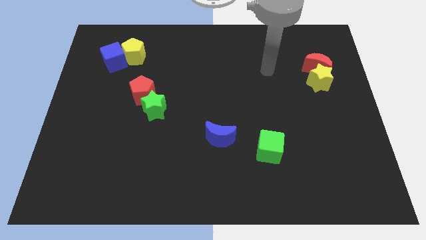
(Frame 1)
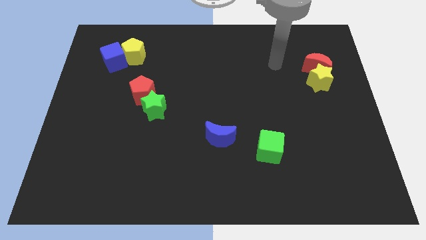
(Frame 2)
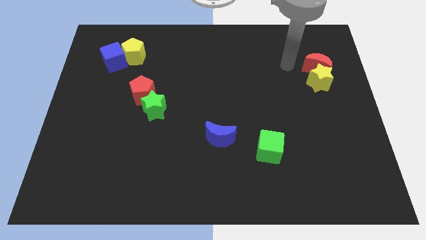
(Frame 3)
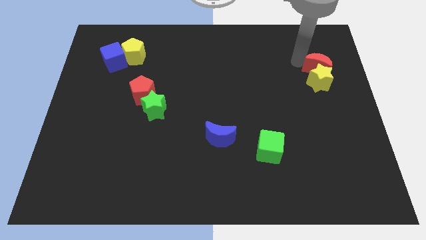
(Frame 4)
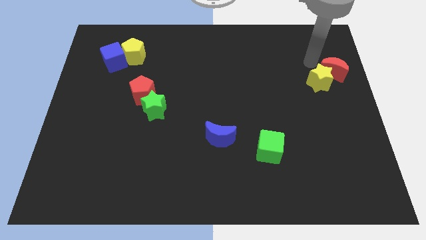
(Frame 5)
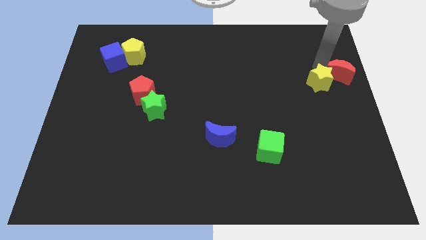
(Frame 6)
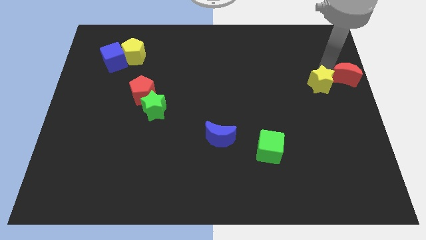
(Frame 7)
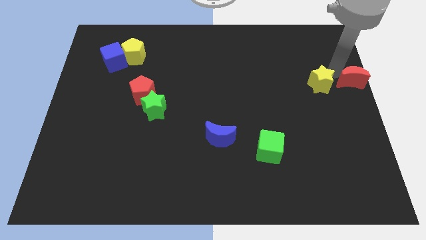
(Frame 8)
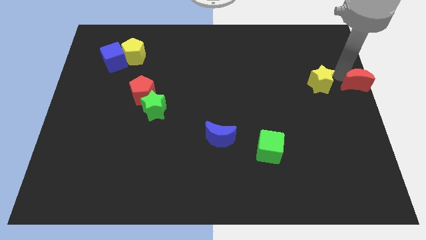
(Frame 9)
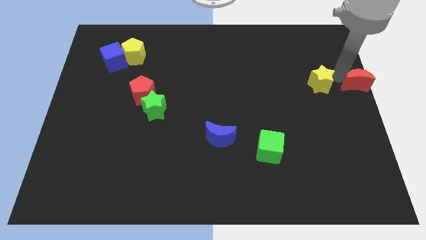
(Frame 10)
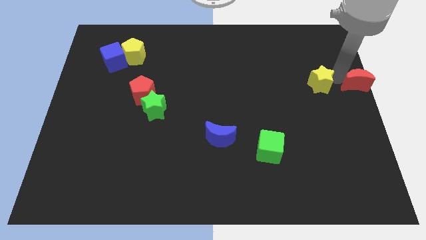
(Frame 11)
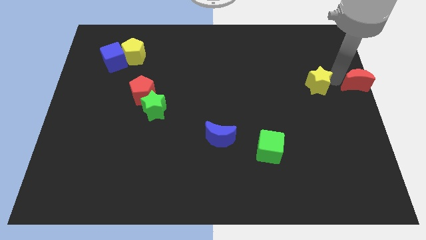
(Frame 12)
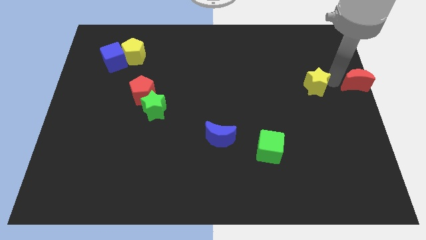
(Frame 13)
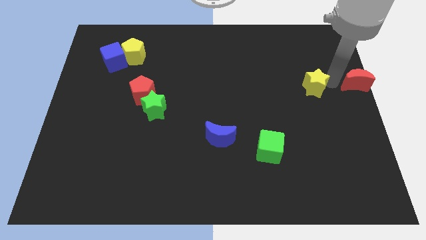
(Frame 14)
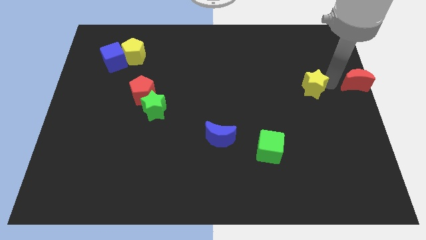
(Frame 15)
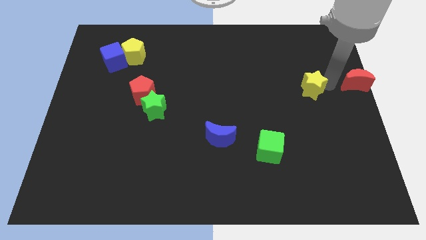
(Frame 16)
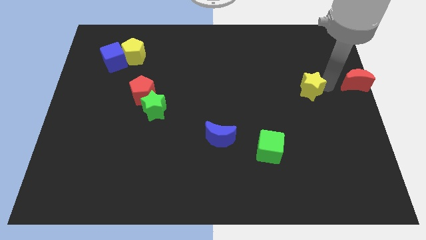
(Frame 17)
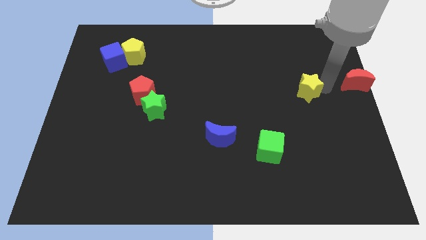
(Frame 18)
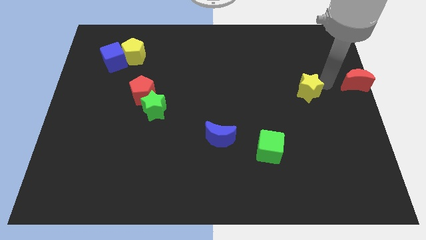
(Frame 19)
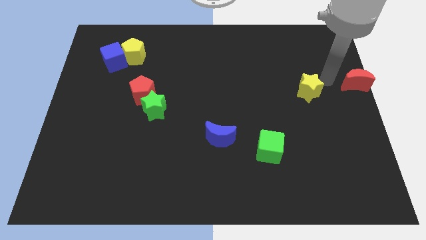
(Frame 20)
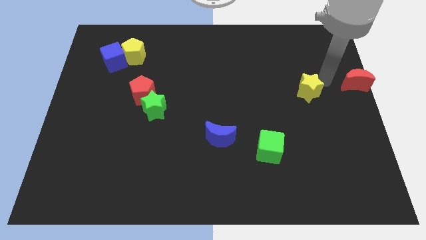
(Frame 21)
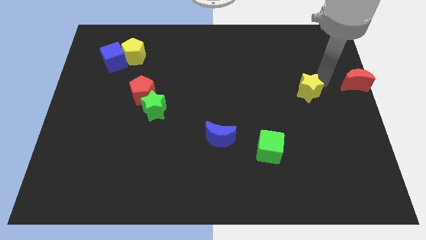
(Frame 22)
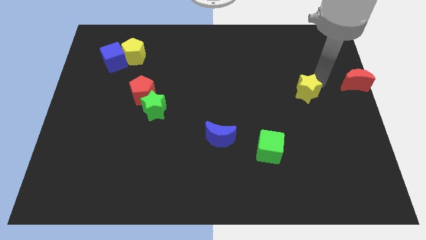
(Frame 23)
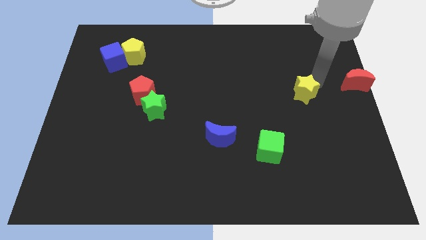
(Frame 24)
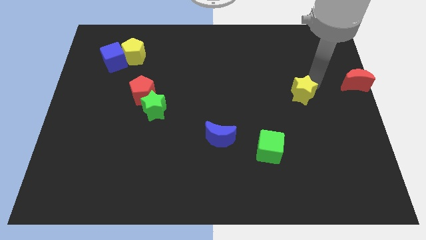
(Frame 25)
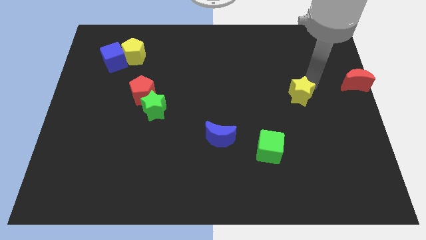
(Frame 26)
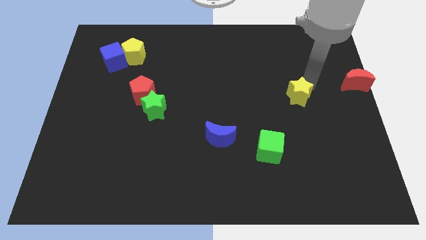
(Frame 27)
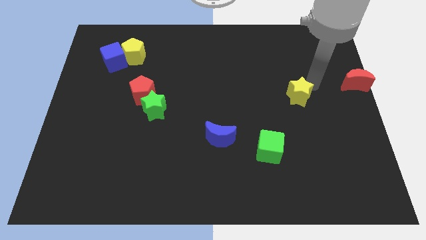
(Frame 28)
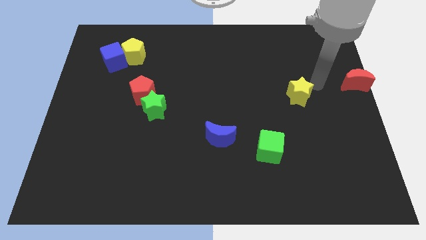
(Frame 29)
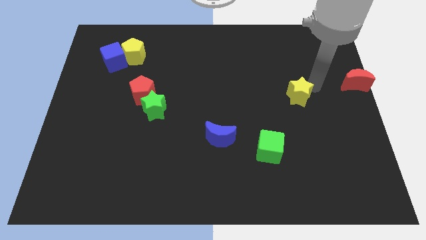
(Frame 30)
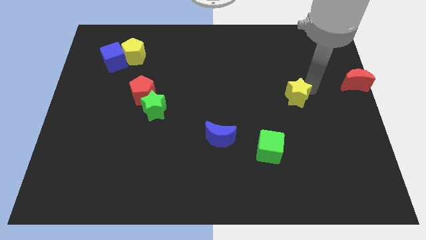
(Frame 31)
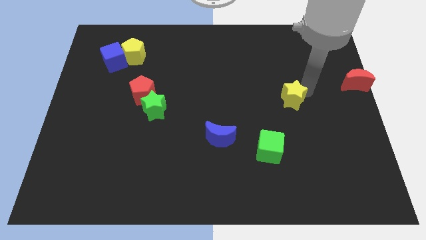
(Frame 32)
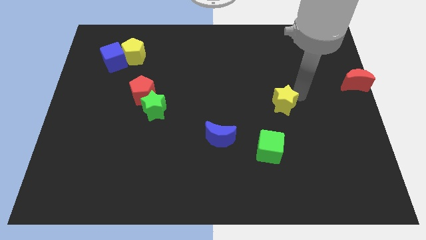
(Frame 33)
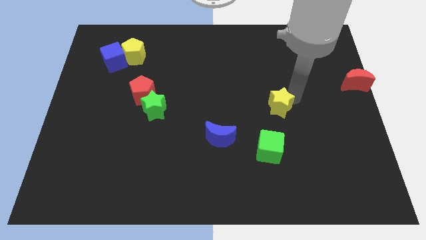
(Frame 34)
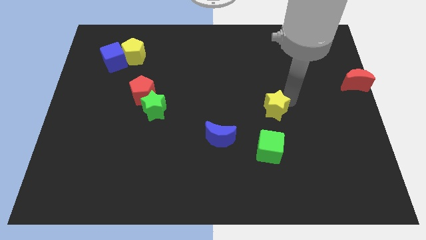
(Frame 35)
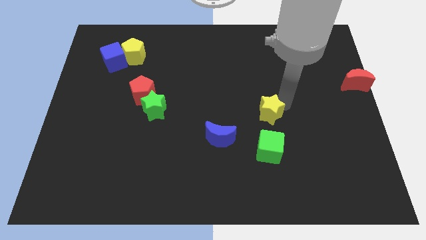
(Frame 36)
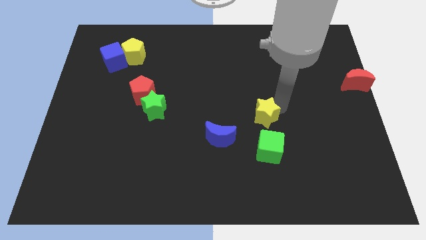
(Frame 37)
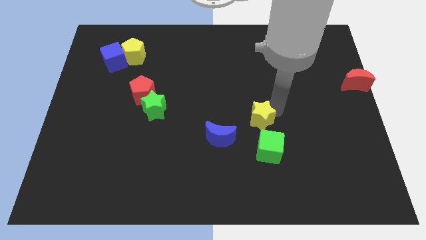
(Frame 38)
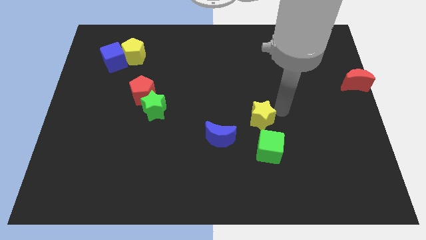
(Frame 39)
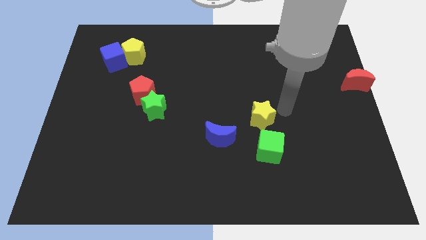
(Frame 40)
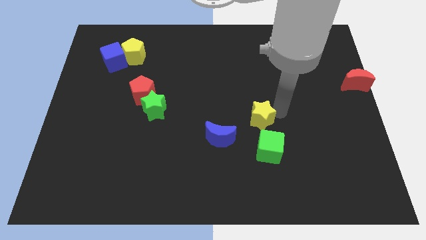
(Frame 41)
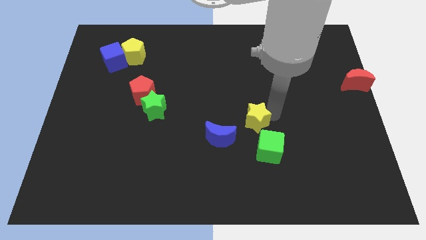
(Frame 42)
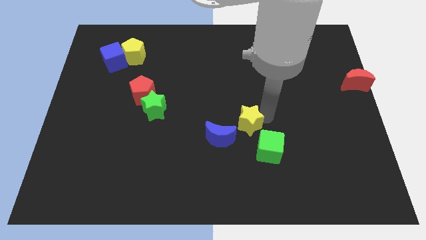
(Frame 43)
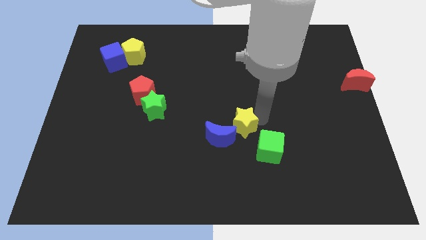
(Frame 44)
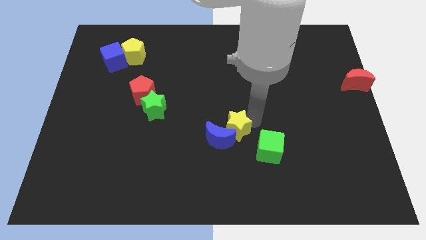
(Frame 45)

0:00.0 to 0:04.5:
put the yellow star next to the blue moon

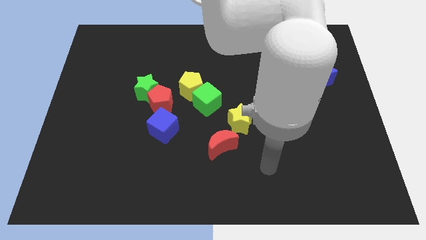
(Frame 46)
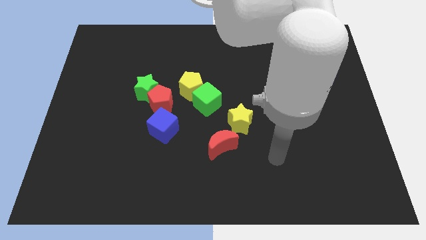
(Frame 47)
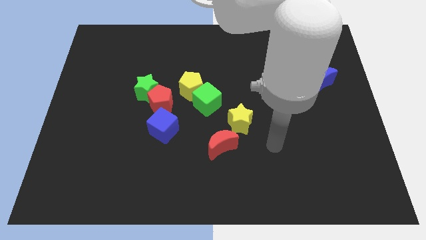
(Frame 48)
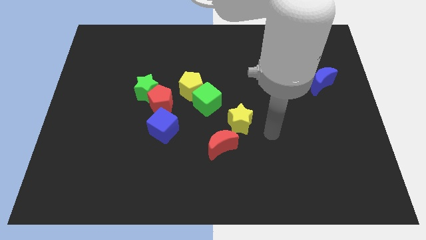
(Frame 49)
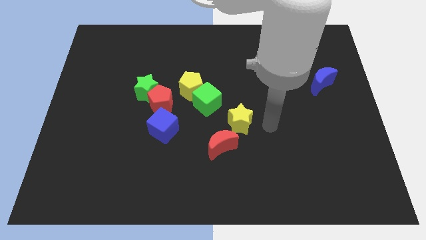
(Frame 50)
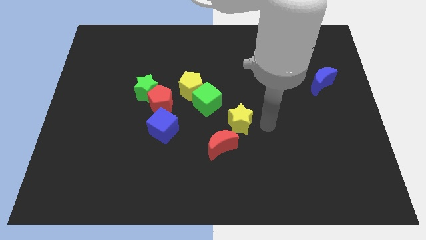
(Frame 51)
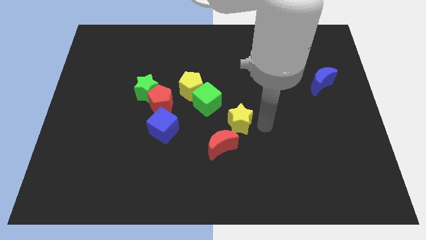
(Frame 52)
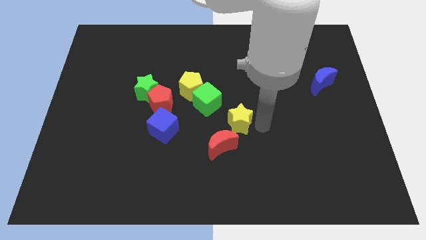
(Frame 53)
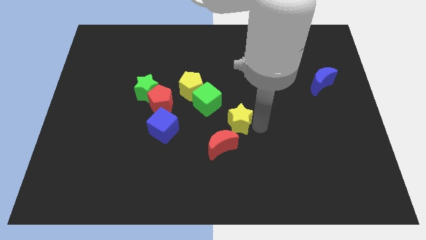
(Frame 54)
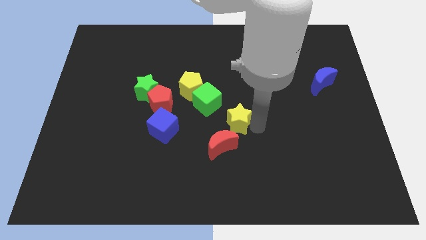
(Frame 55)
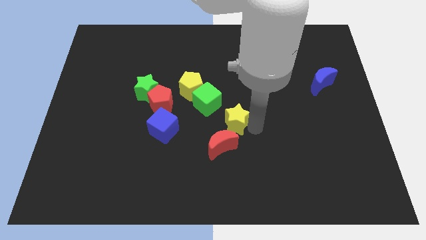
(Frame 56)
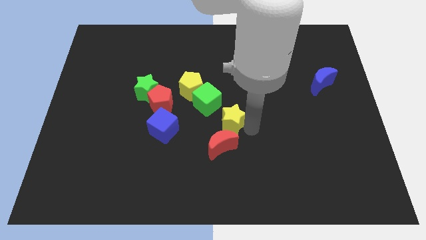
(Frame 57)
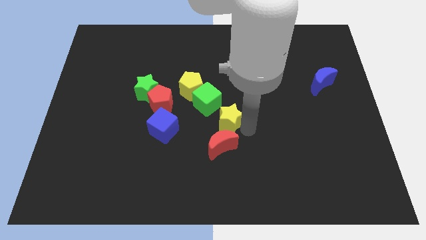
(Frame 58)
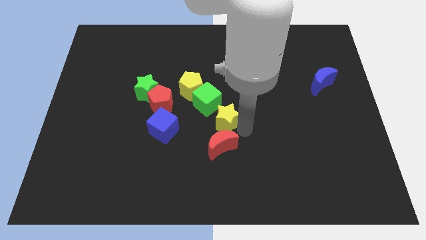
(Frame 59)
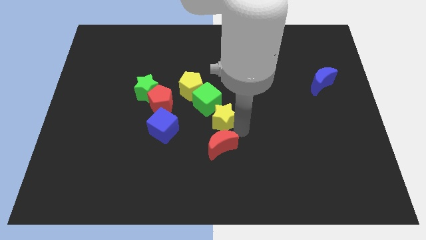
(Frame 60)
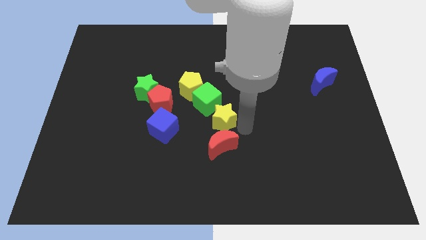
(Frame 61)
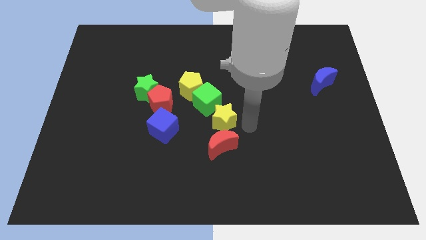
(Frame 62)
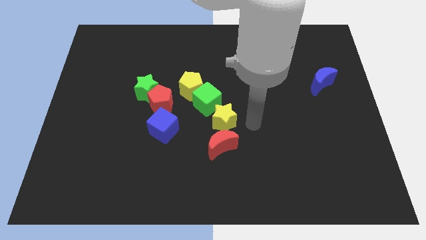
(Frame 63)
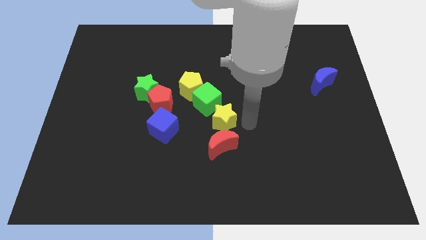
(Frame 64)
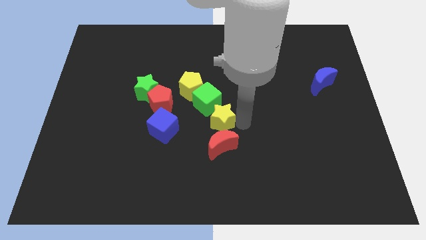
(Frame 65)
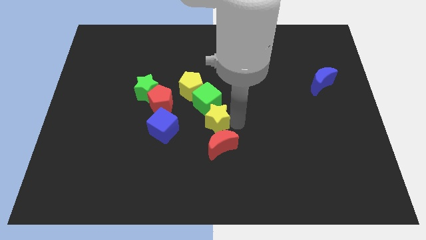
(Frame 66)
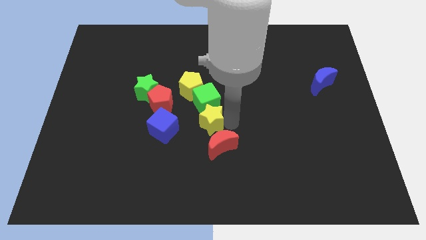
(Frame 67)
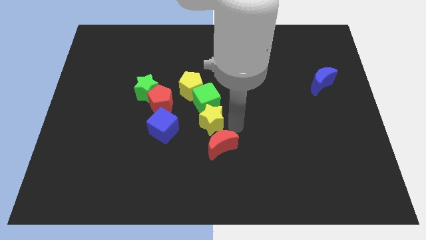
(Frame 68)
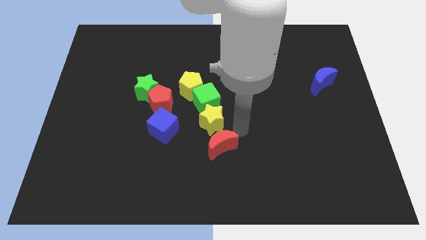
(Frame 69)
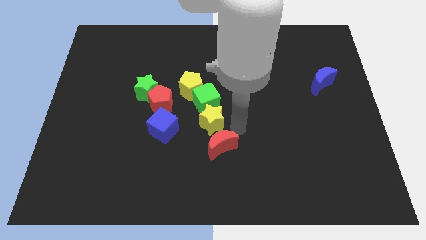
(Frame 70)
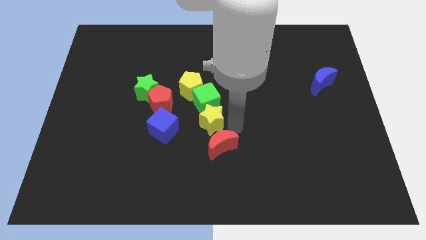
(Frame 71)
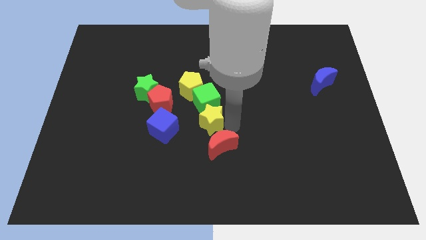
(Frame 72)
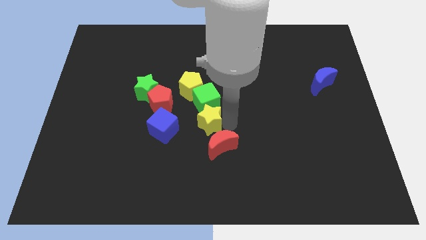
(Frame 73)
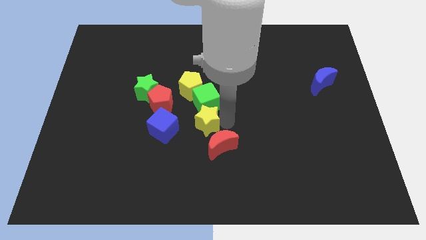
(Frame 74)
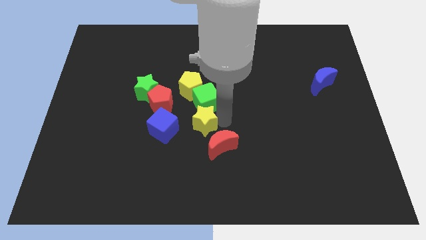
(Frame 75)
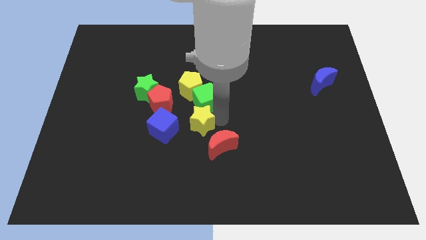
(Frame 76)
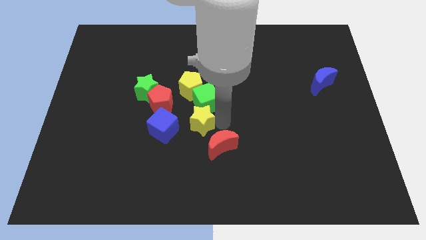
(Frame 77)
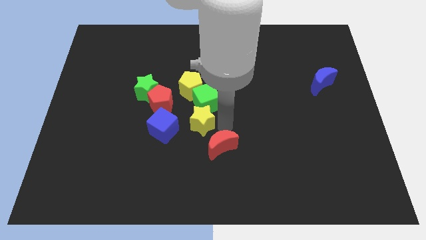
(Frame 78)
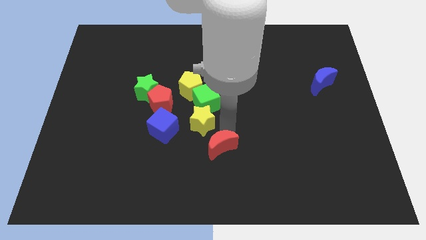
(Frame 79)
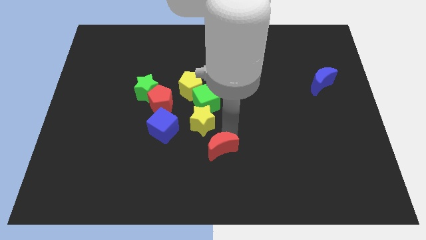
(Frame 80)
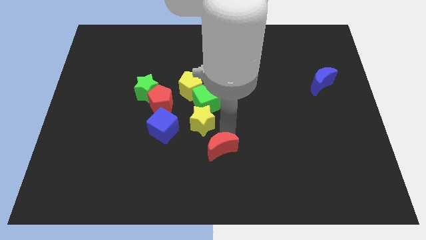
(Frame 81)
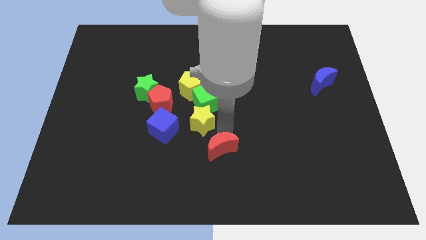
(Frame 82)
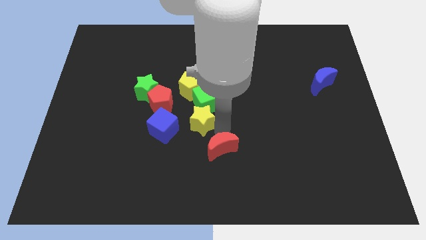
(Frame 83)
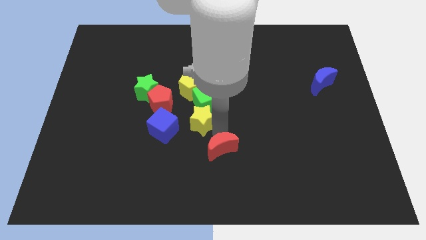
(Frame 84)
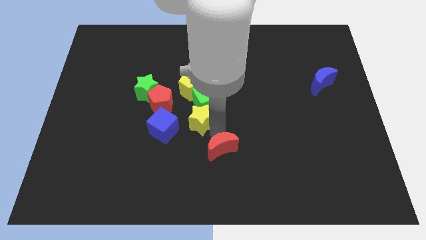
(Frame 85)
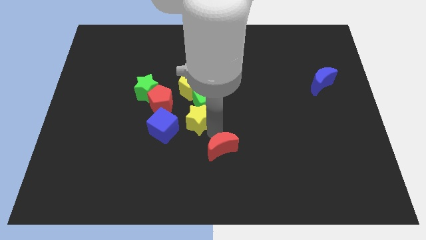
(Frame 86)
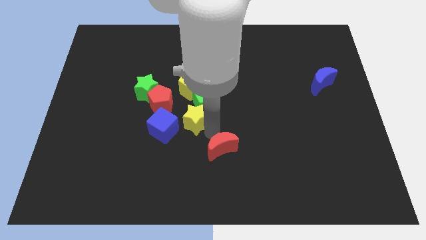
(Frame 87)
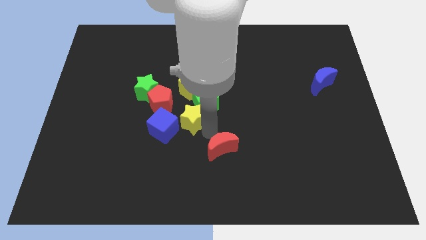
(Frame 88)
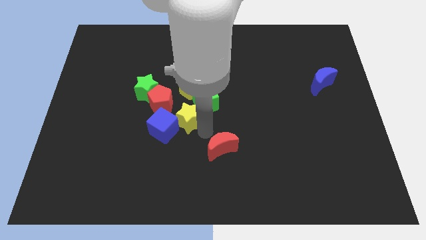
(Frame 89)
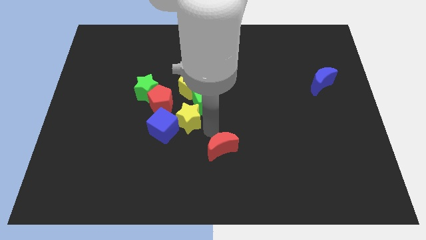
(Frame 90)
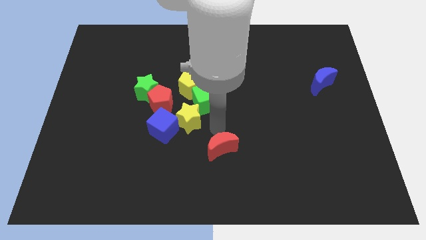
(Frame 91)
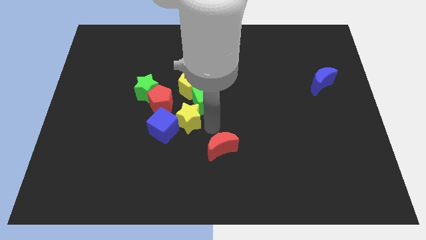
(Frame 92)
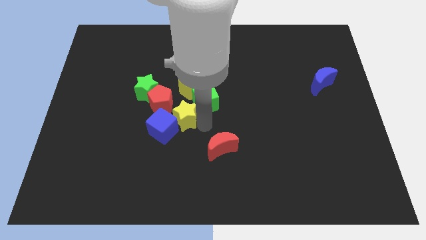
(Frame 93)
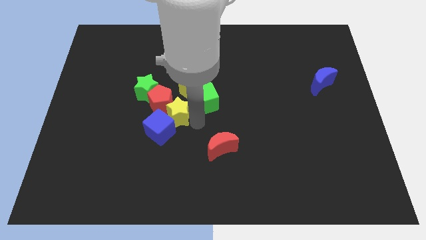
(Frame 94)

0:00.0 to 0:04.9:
slide the yellow star to the red pentagon
